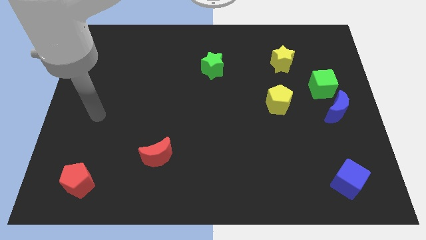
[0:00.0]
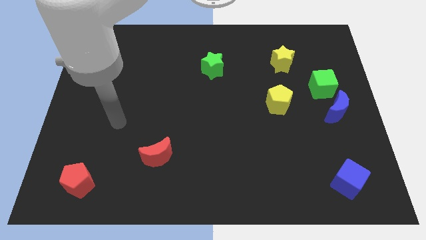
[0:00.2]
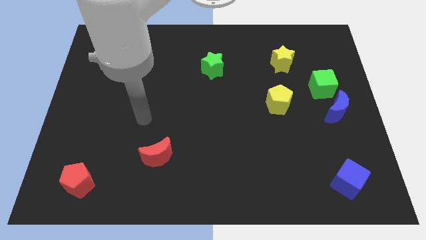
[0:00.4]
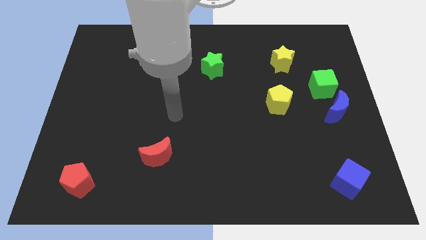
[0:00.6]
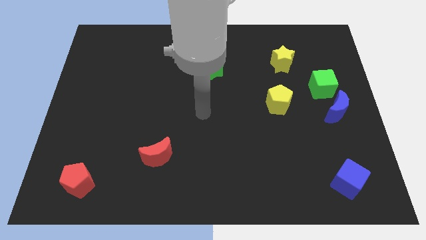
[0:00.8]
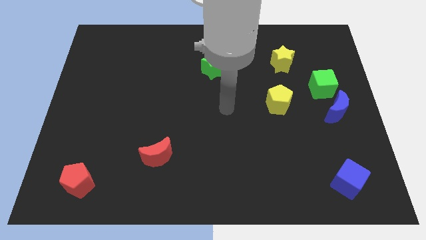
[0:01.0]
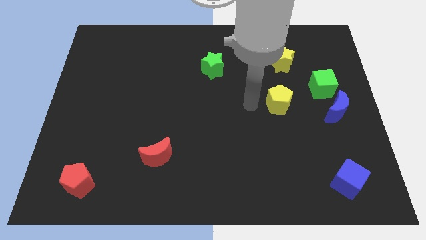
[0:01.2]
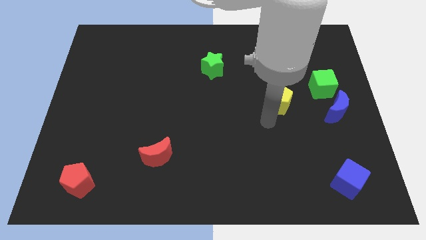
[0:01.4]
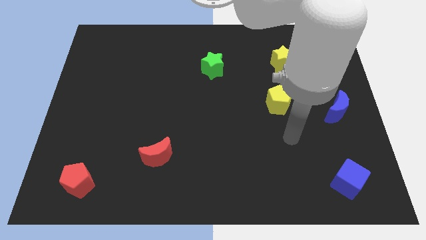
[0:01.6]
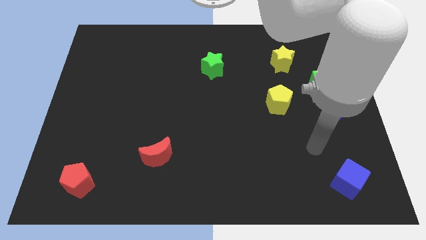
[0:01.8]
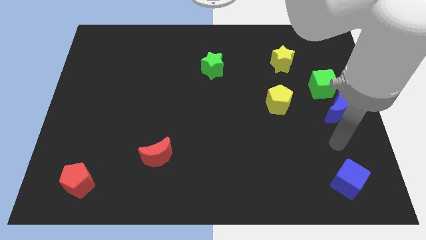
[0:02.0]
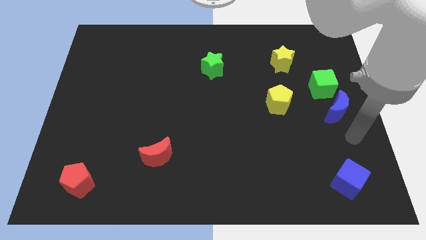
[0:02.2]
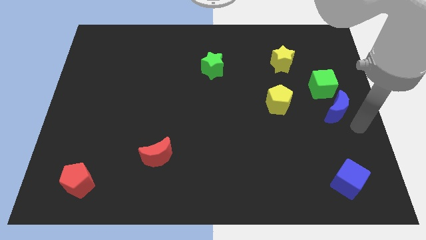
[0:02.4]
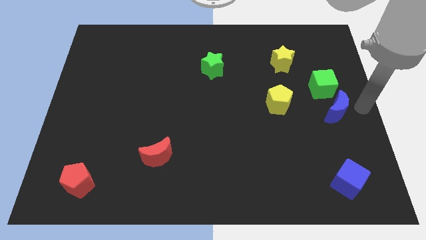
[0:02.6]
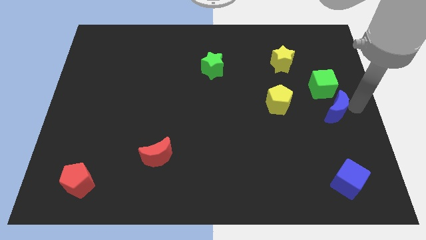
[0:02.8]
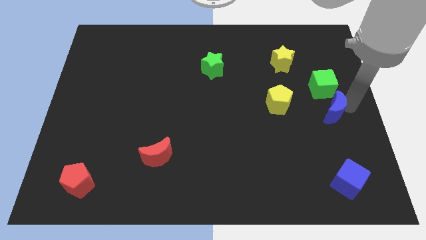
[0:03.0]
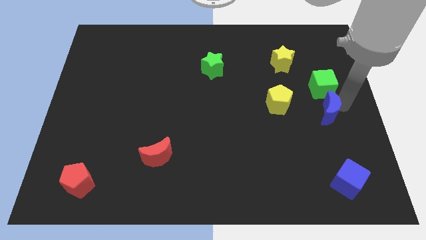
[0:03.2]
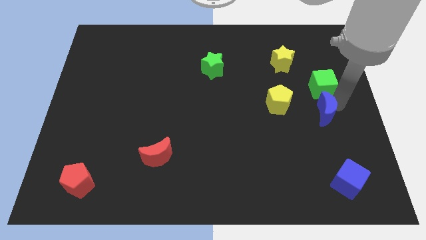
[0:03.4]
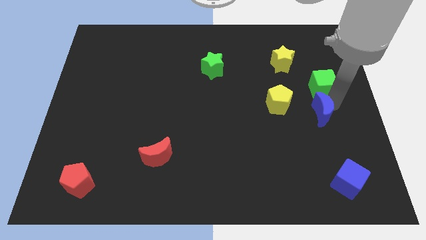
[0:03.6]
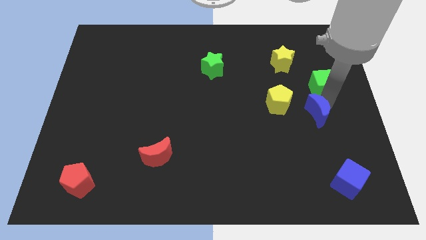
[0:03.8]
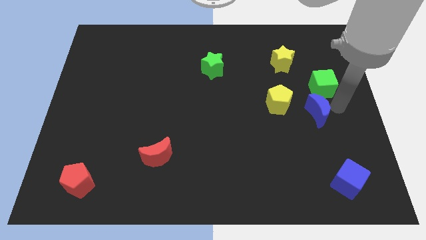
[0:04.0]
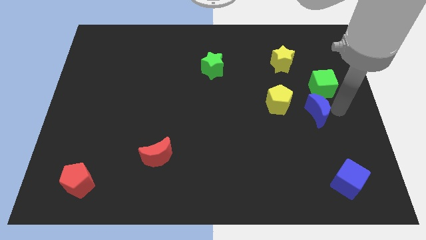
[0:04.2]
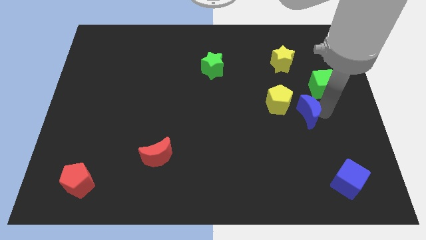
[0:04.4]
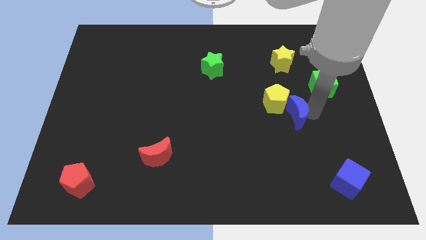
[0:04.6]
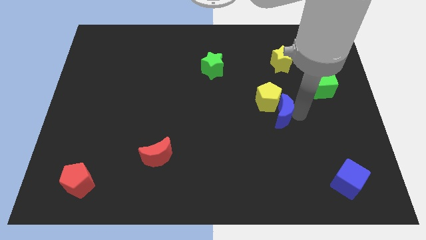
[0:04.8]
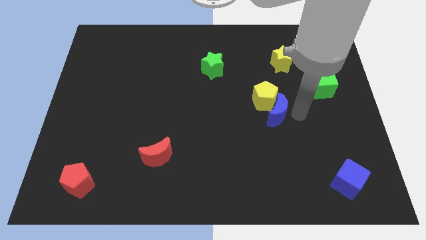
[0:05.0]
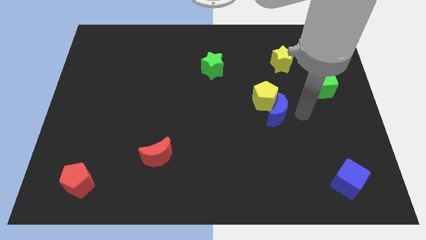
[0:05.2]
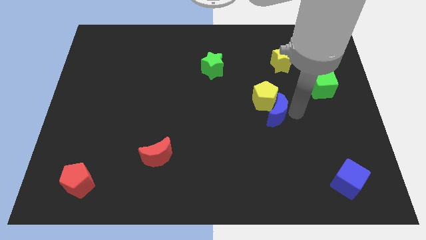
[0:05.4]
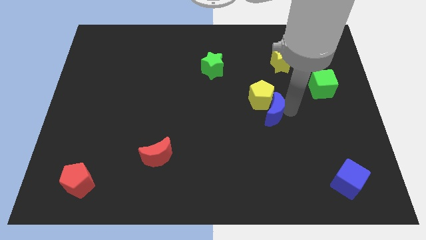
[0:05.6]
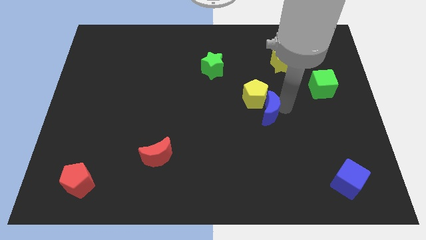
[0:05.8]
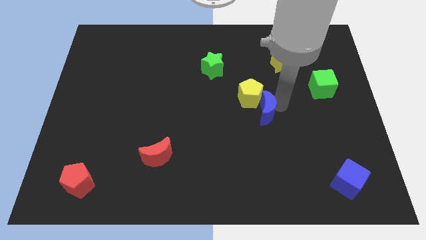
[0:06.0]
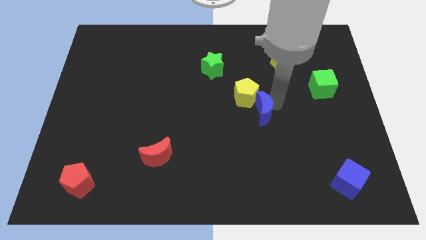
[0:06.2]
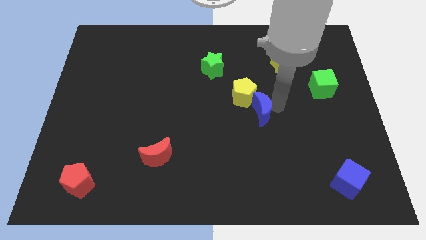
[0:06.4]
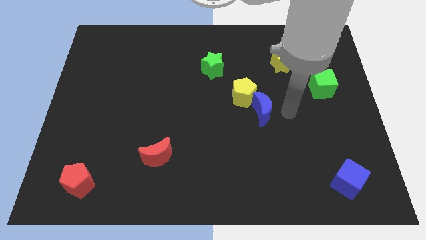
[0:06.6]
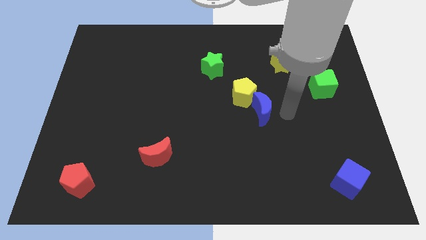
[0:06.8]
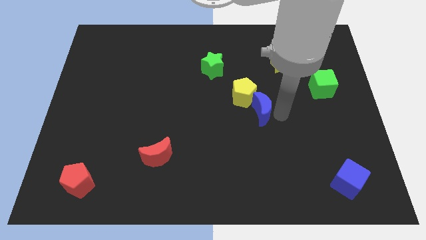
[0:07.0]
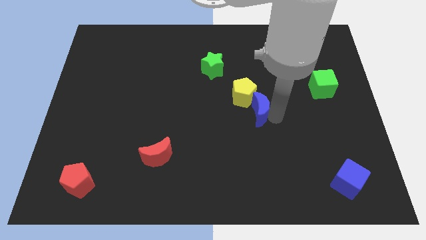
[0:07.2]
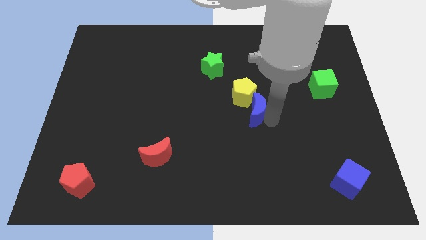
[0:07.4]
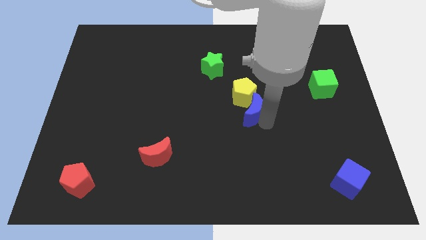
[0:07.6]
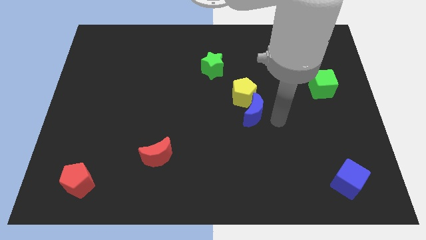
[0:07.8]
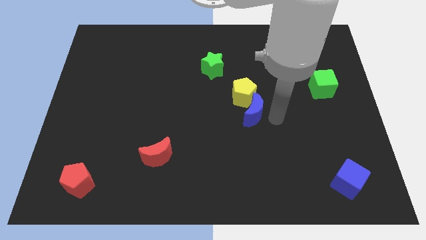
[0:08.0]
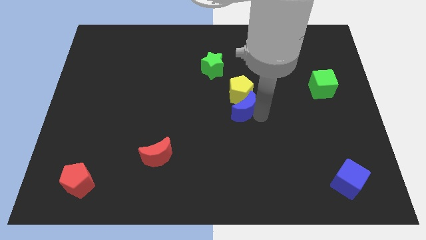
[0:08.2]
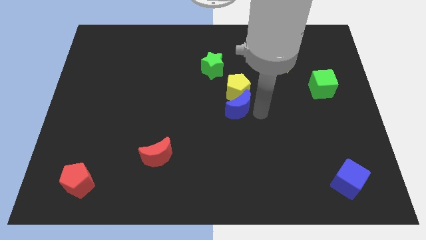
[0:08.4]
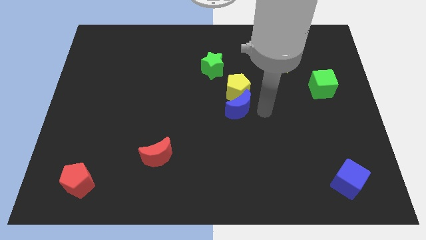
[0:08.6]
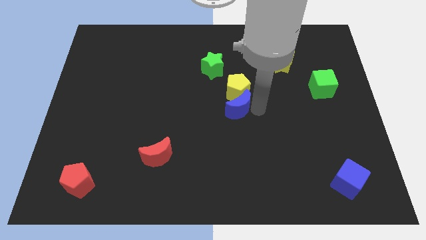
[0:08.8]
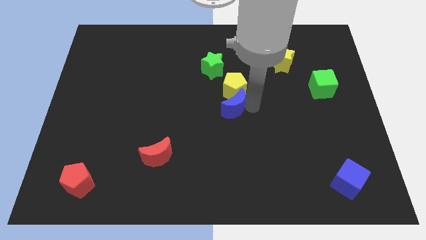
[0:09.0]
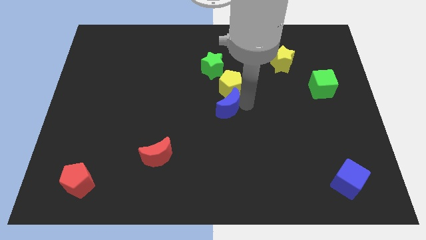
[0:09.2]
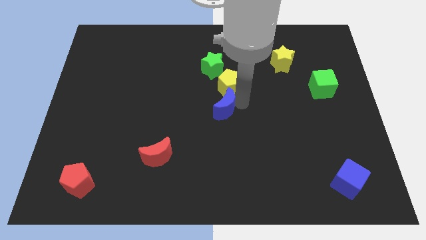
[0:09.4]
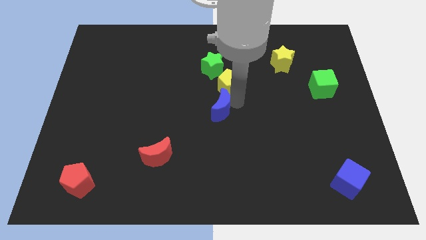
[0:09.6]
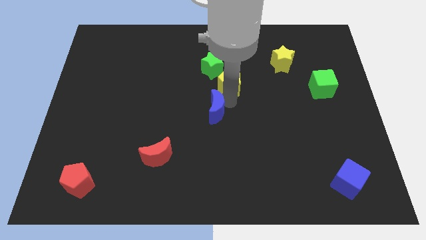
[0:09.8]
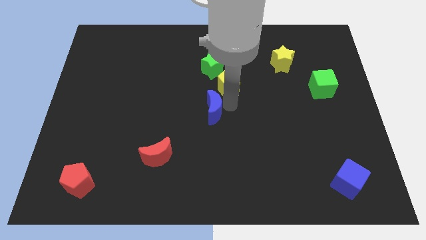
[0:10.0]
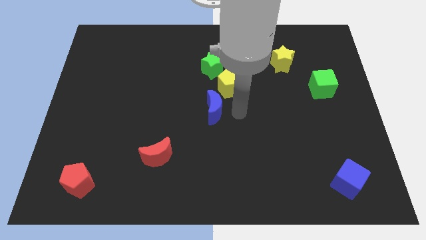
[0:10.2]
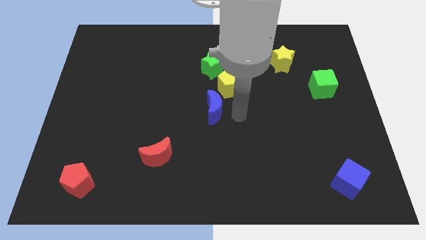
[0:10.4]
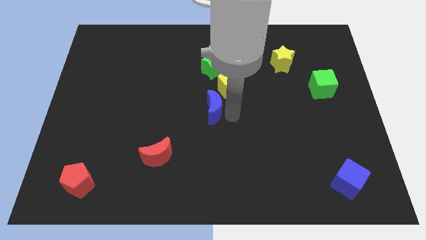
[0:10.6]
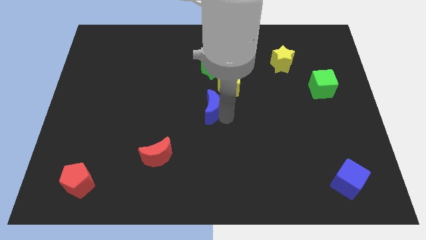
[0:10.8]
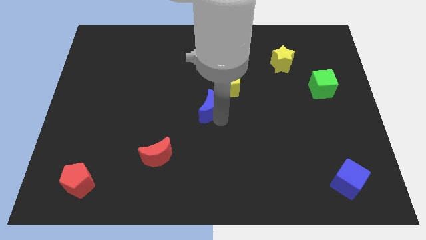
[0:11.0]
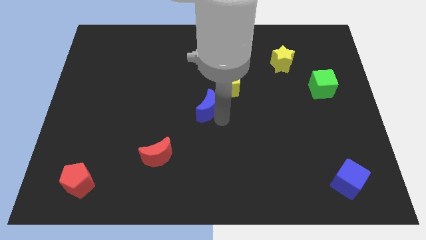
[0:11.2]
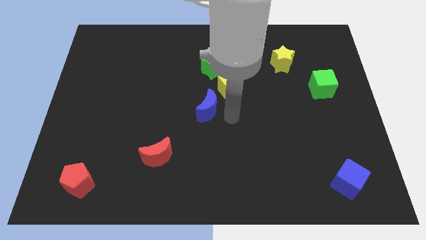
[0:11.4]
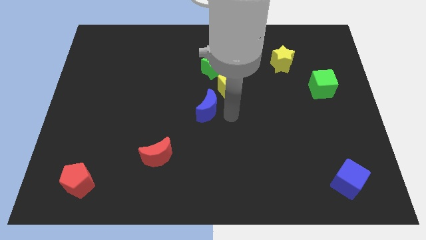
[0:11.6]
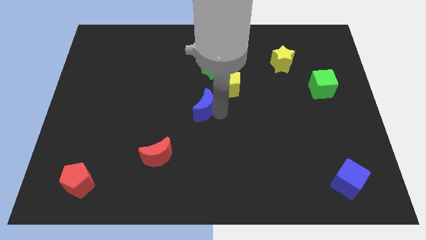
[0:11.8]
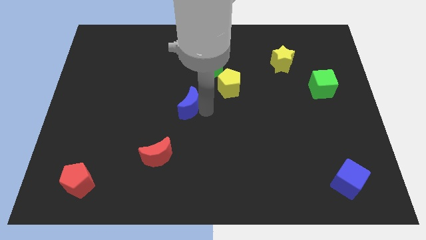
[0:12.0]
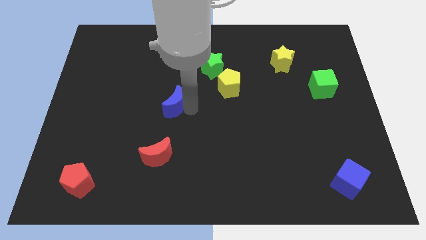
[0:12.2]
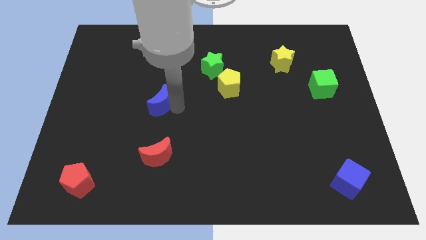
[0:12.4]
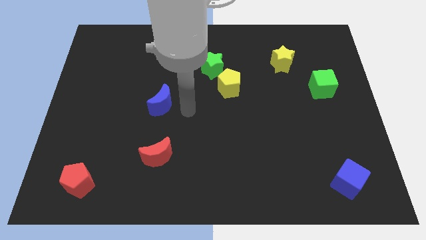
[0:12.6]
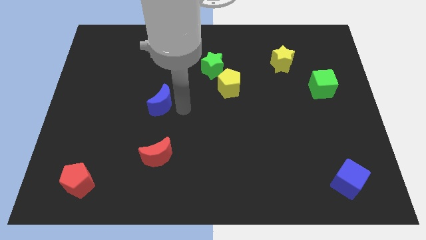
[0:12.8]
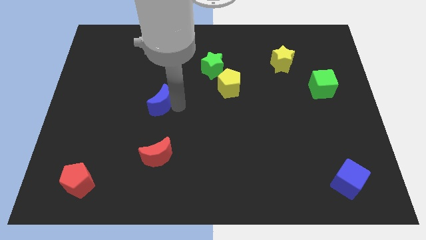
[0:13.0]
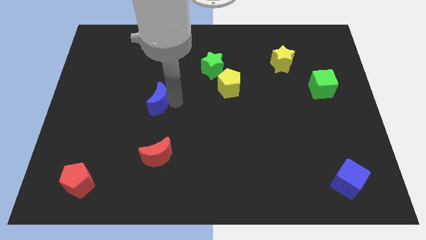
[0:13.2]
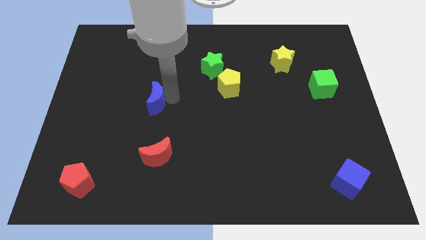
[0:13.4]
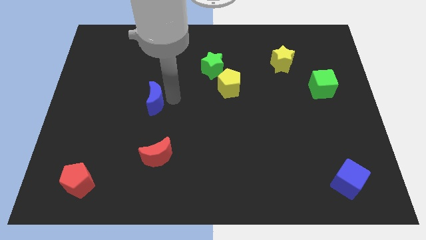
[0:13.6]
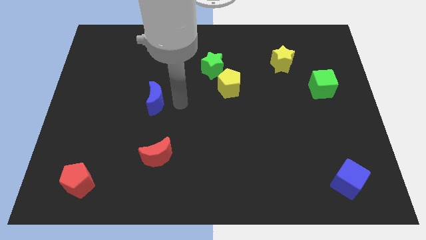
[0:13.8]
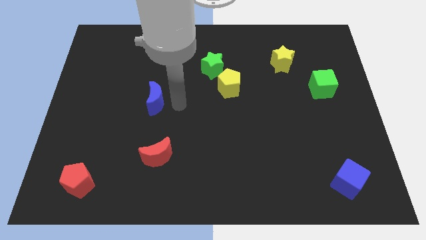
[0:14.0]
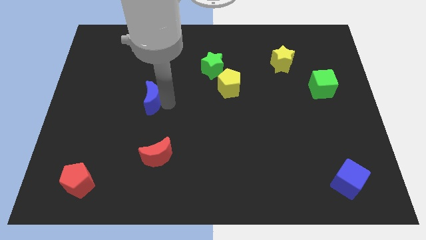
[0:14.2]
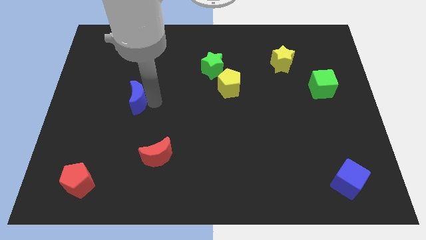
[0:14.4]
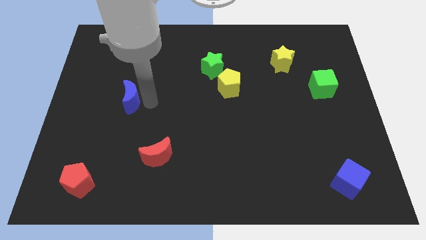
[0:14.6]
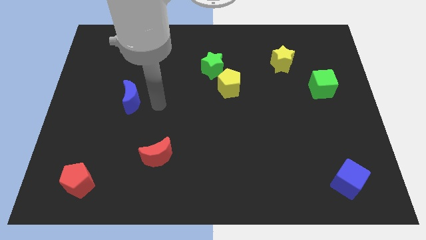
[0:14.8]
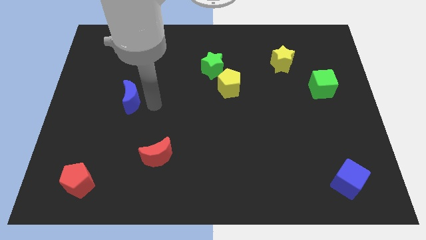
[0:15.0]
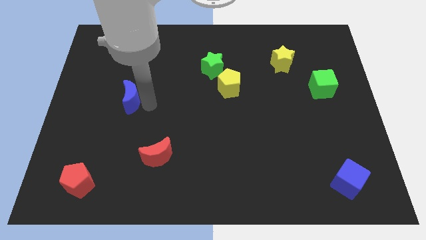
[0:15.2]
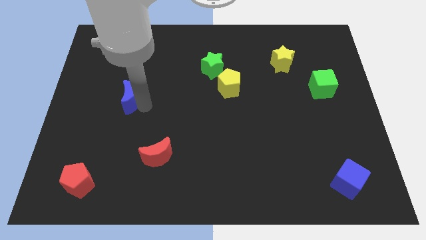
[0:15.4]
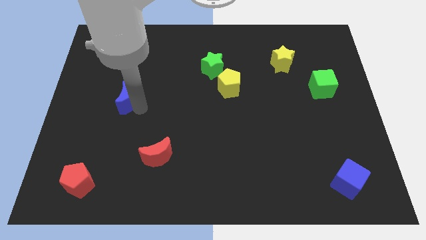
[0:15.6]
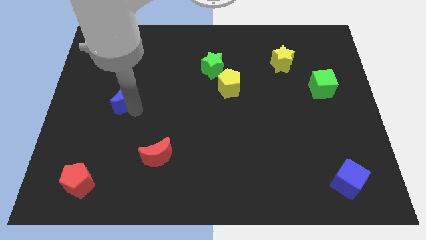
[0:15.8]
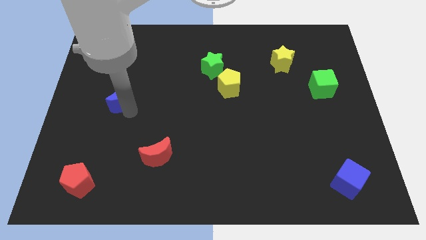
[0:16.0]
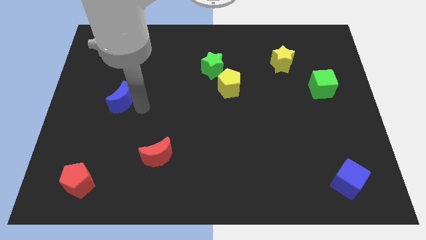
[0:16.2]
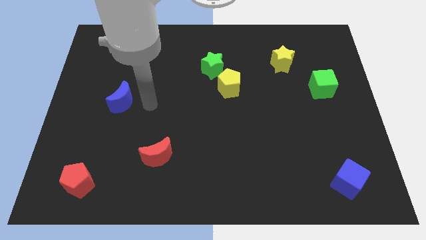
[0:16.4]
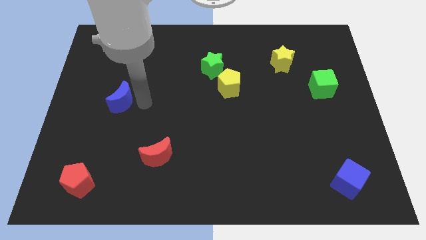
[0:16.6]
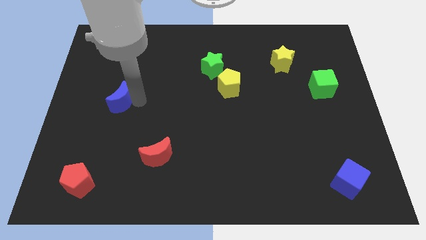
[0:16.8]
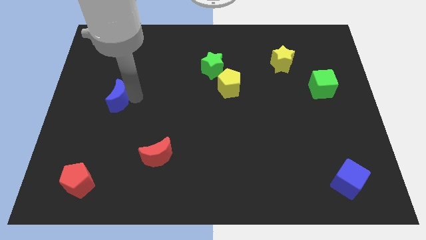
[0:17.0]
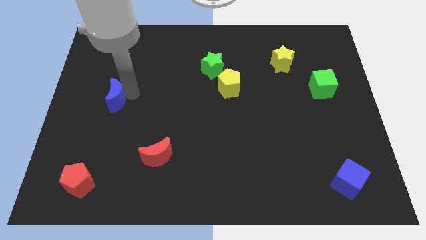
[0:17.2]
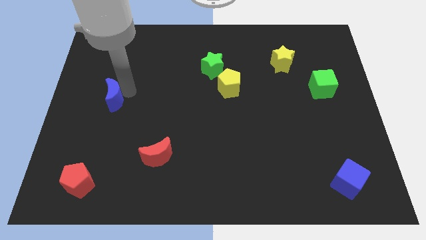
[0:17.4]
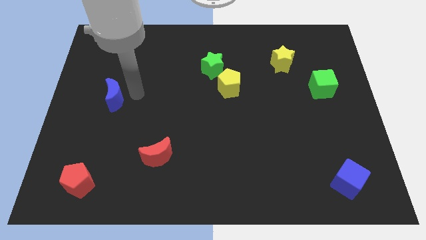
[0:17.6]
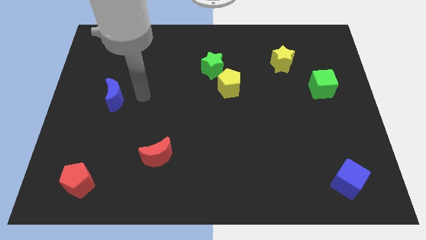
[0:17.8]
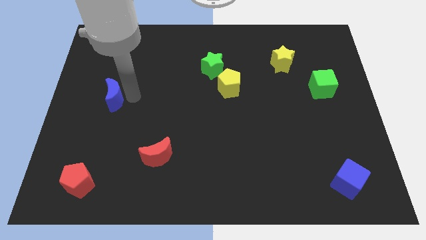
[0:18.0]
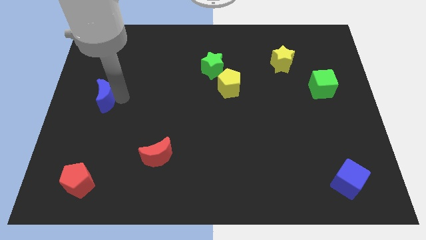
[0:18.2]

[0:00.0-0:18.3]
put the blue moon to the center left
